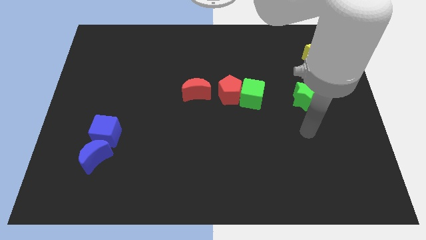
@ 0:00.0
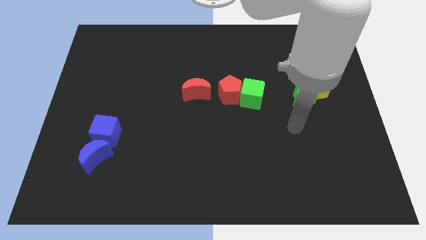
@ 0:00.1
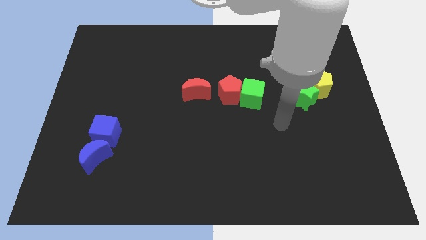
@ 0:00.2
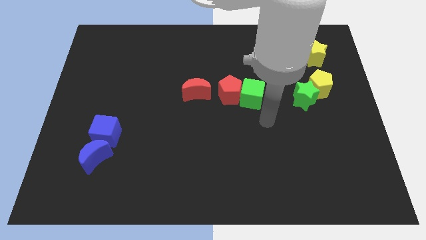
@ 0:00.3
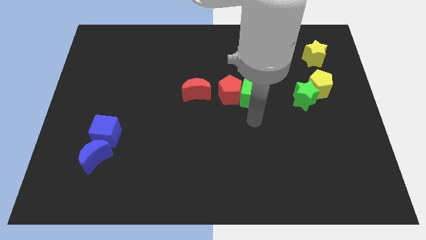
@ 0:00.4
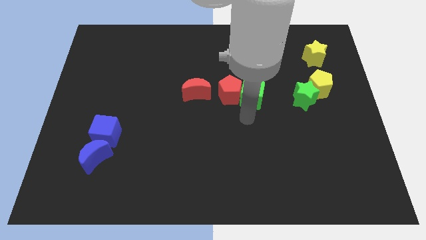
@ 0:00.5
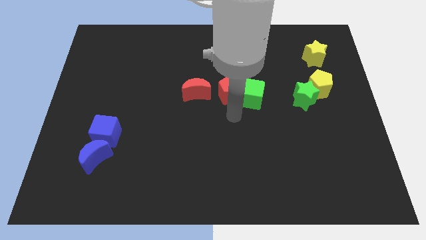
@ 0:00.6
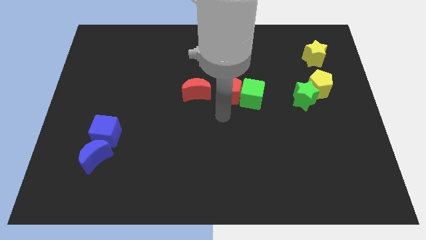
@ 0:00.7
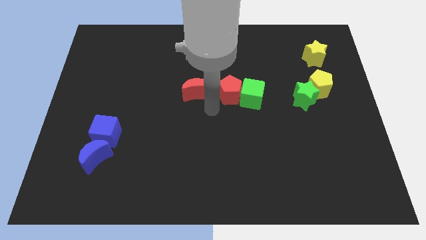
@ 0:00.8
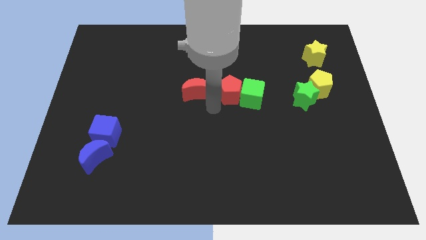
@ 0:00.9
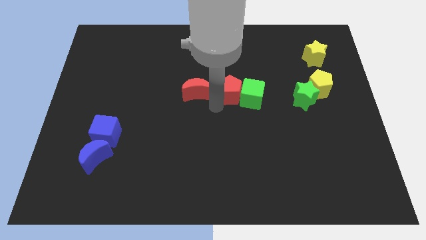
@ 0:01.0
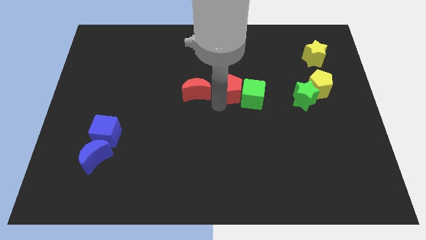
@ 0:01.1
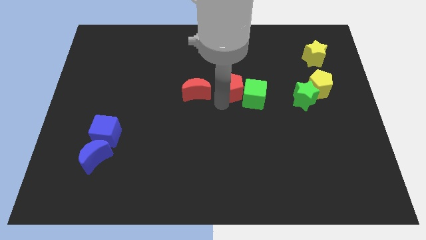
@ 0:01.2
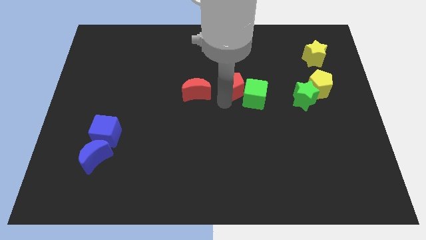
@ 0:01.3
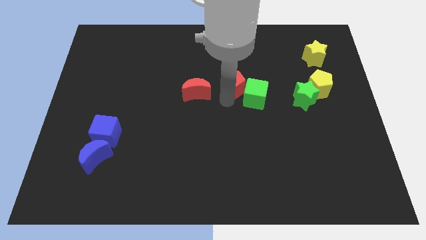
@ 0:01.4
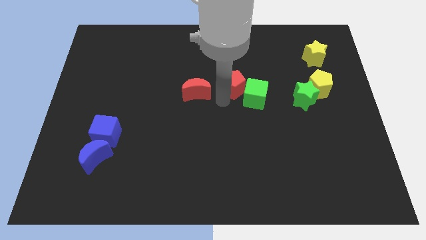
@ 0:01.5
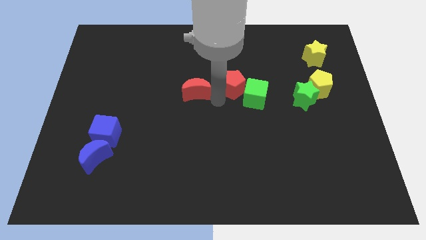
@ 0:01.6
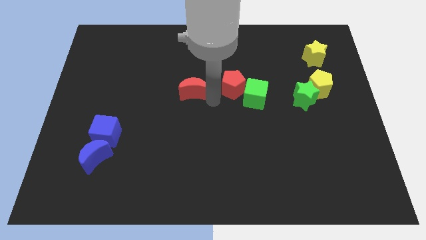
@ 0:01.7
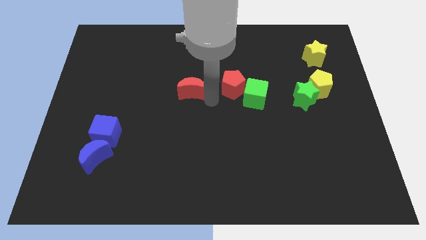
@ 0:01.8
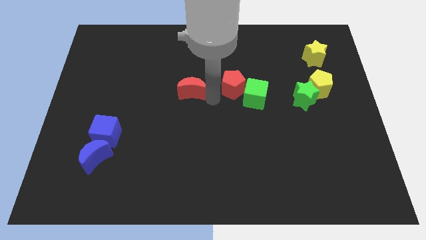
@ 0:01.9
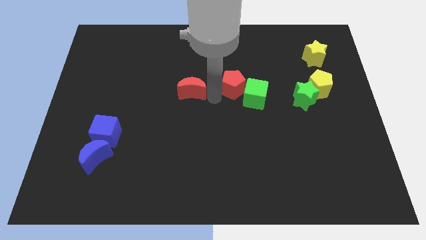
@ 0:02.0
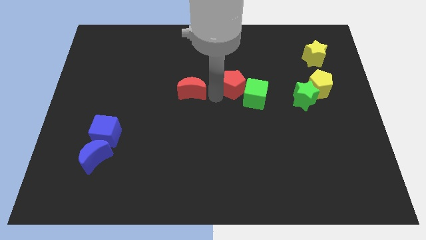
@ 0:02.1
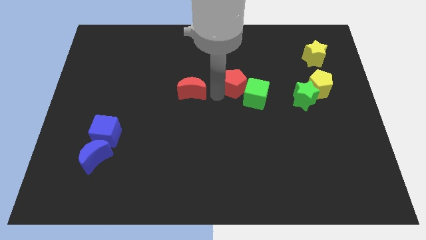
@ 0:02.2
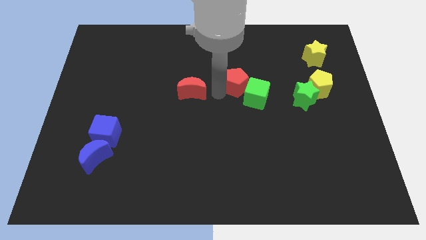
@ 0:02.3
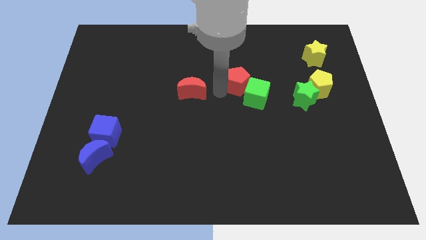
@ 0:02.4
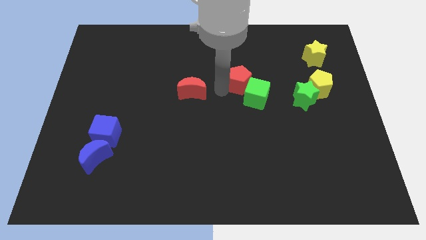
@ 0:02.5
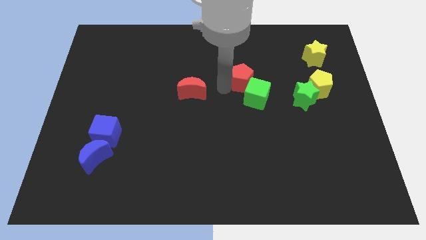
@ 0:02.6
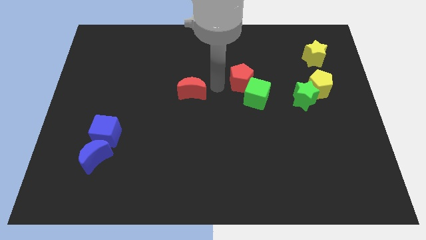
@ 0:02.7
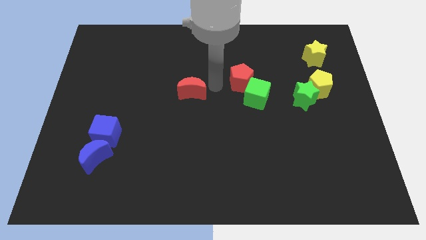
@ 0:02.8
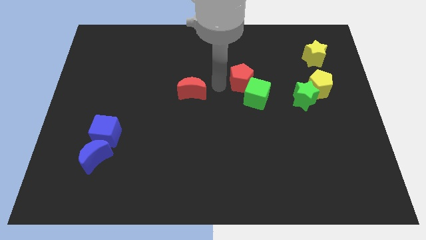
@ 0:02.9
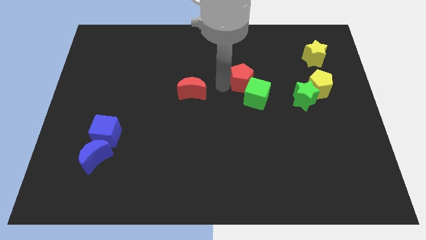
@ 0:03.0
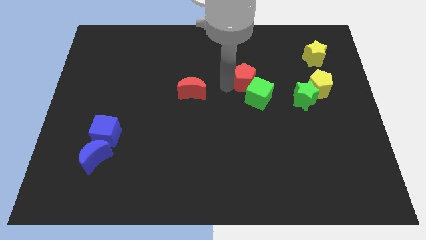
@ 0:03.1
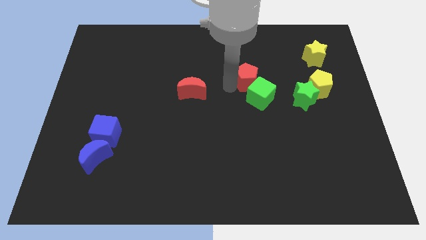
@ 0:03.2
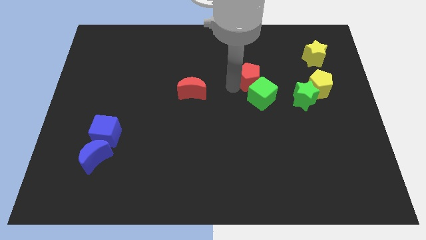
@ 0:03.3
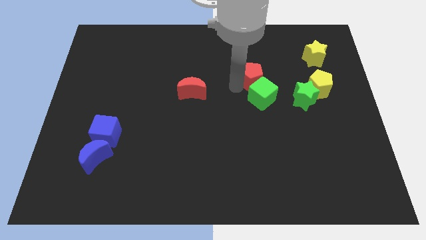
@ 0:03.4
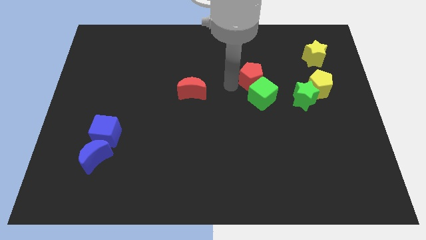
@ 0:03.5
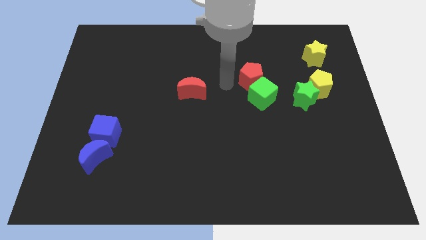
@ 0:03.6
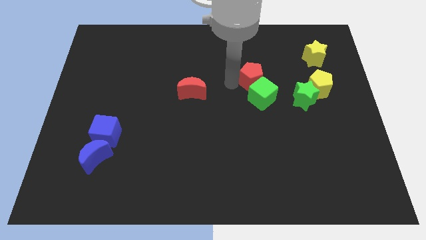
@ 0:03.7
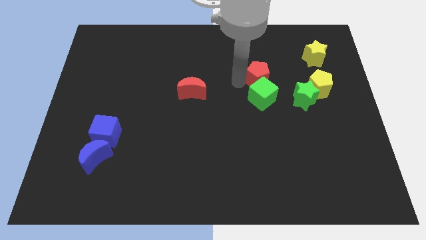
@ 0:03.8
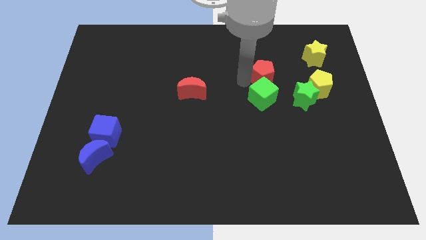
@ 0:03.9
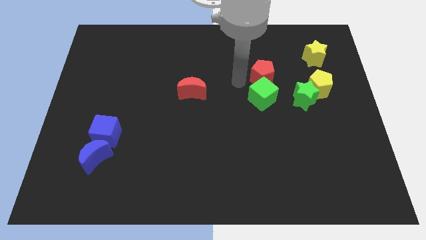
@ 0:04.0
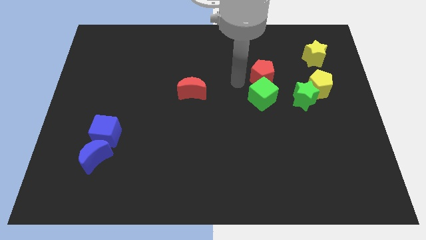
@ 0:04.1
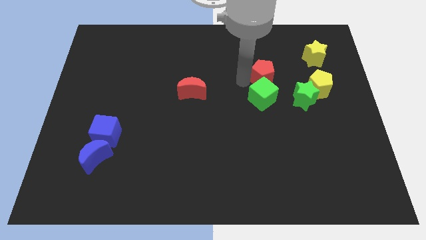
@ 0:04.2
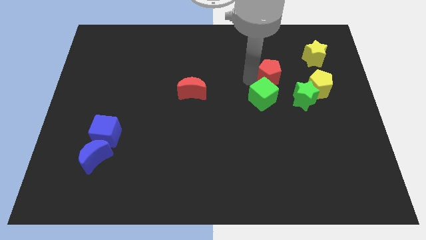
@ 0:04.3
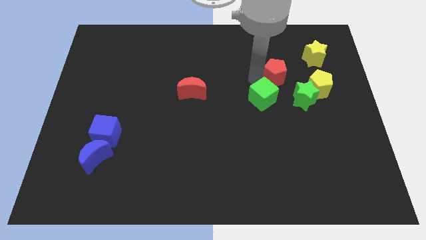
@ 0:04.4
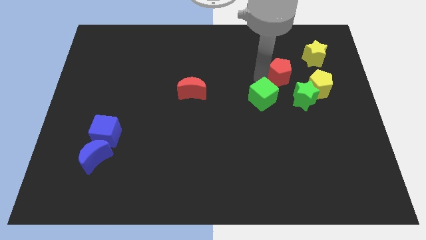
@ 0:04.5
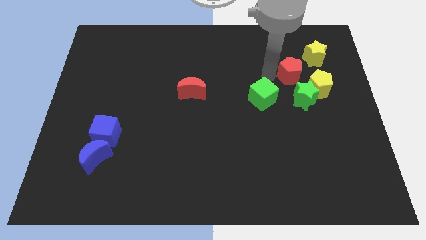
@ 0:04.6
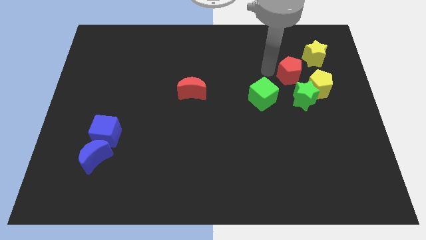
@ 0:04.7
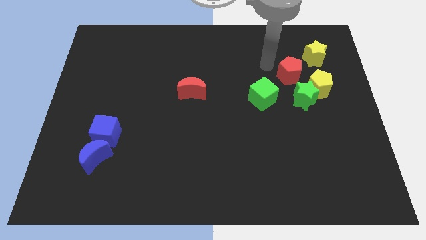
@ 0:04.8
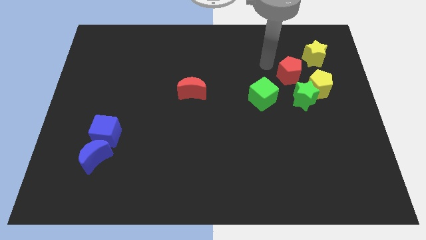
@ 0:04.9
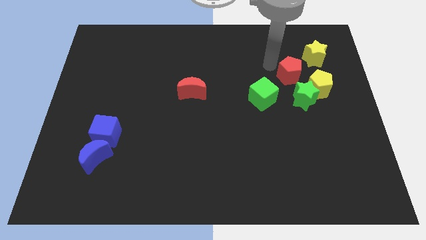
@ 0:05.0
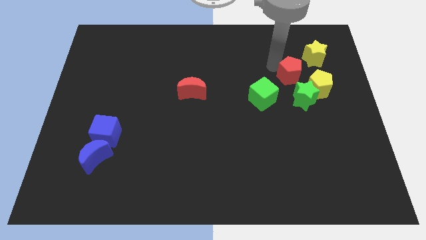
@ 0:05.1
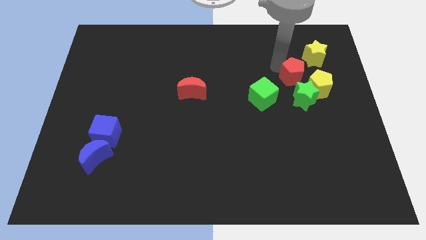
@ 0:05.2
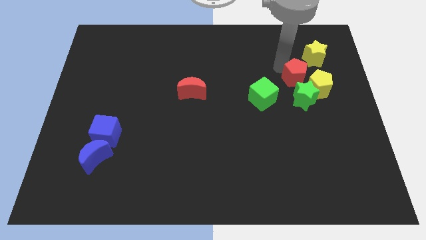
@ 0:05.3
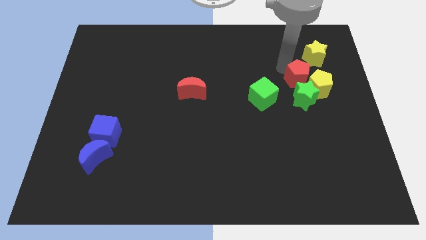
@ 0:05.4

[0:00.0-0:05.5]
put the red pentagon next to the yellow pentagon
